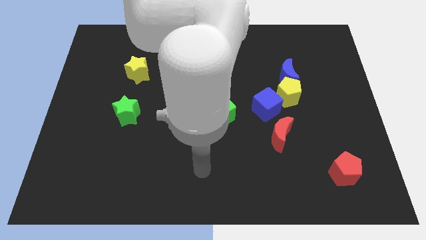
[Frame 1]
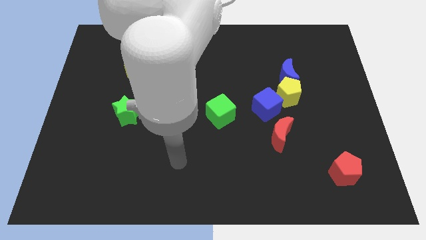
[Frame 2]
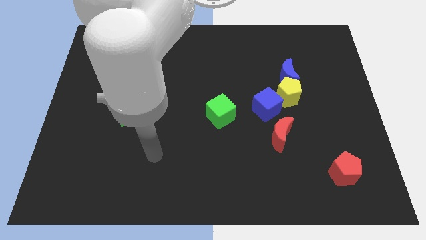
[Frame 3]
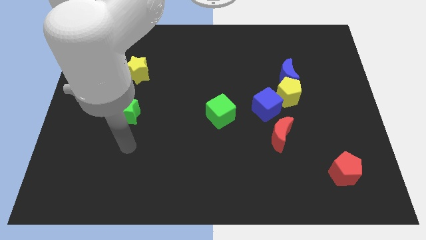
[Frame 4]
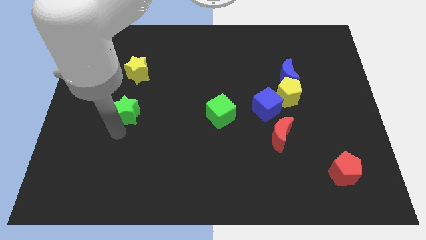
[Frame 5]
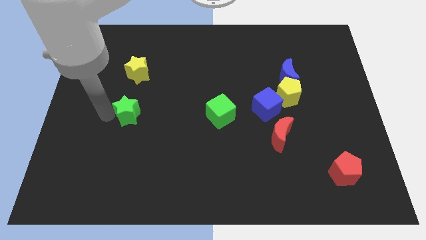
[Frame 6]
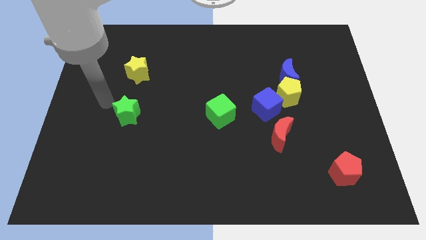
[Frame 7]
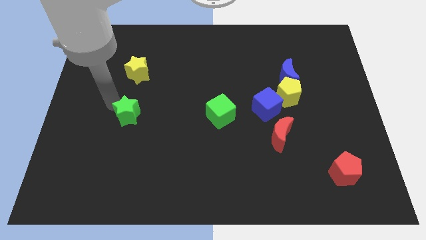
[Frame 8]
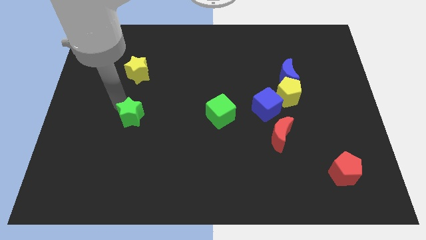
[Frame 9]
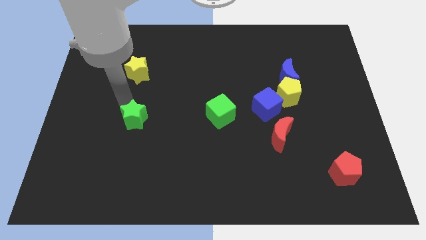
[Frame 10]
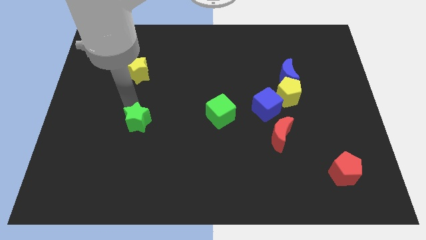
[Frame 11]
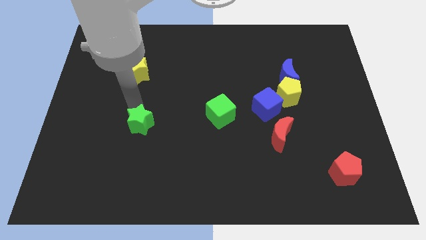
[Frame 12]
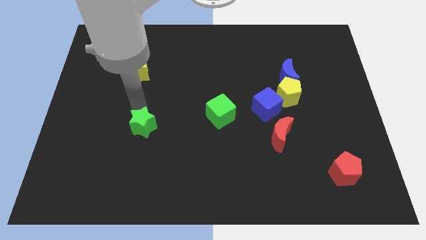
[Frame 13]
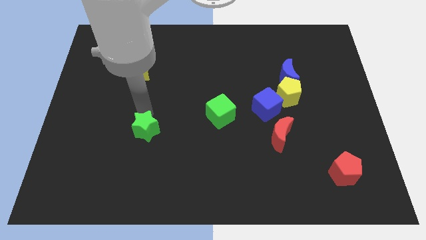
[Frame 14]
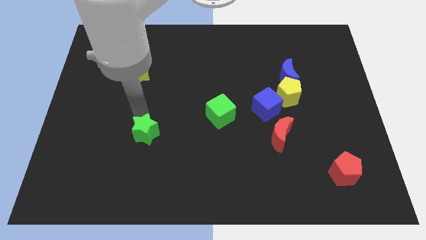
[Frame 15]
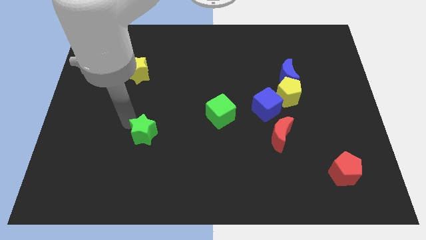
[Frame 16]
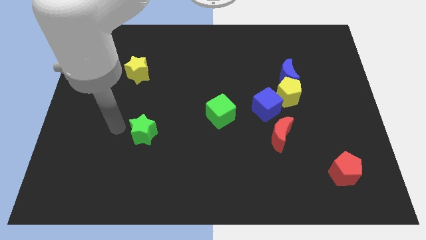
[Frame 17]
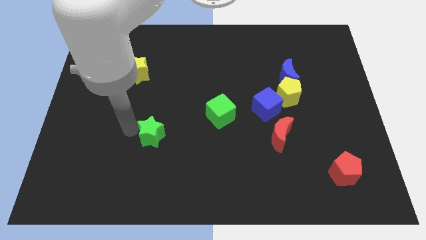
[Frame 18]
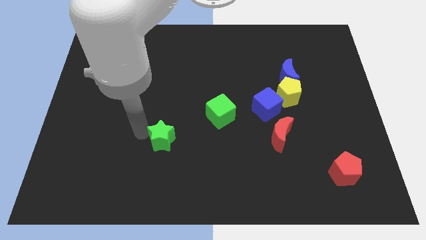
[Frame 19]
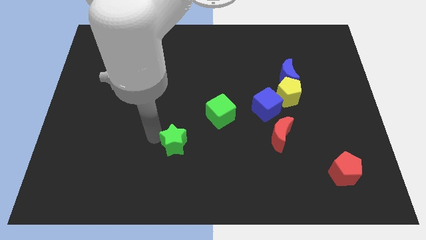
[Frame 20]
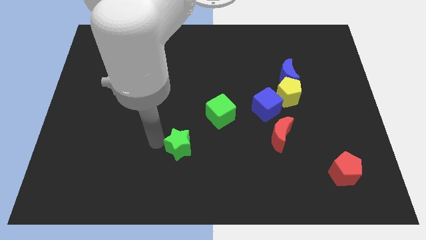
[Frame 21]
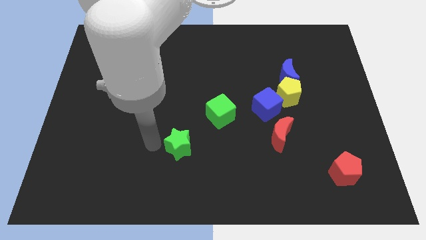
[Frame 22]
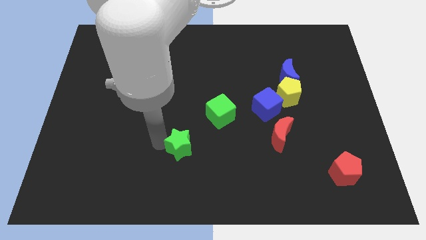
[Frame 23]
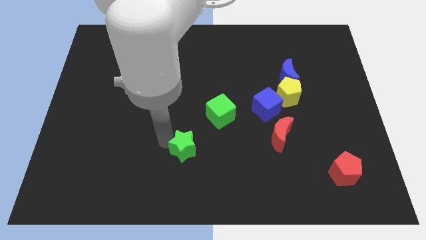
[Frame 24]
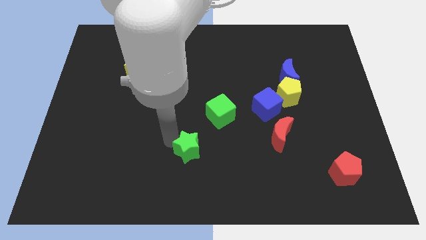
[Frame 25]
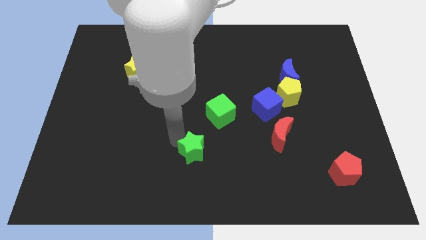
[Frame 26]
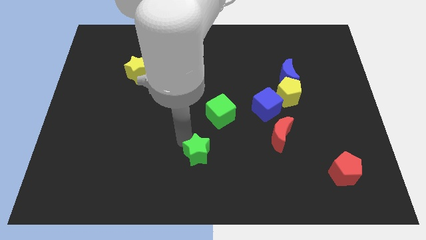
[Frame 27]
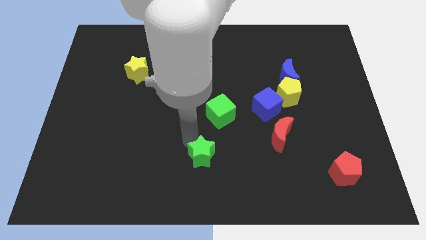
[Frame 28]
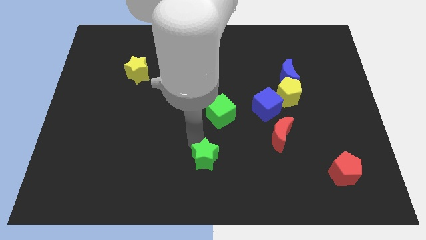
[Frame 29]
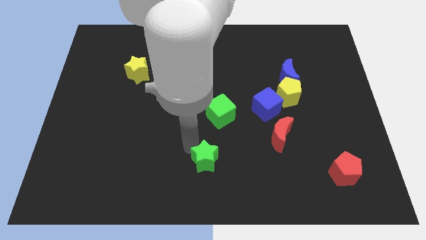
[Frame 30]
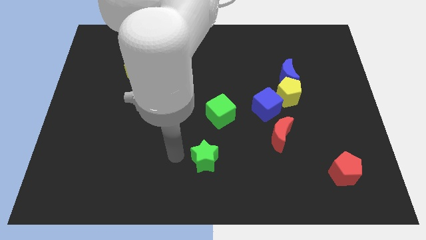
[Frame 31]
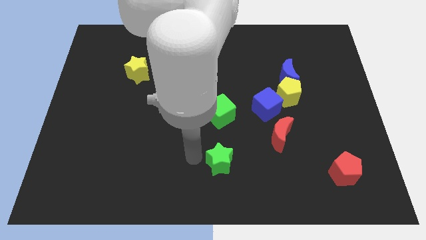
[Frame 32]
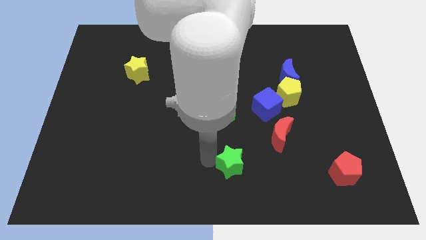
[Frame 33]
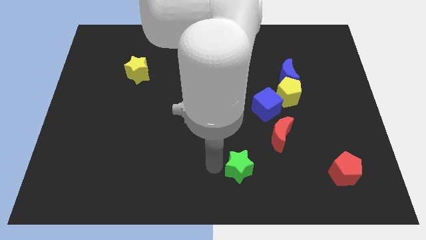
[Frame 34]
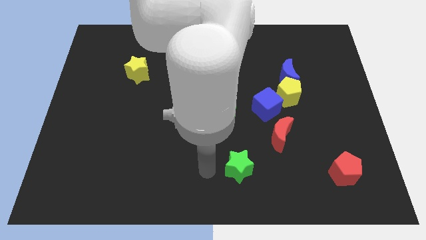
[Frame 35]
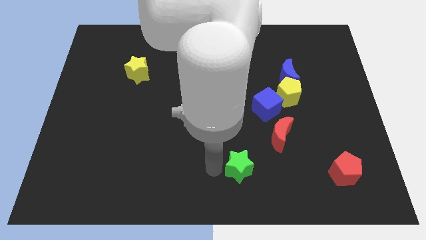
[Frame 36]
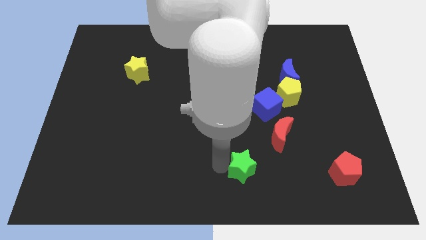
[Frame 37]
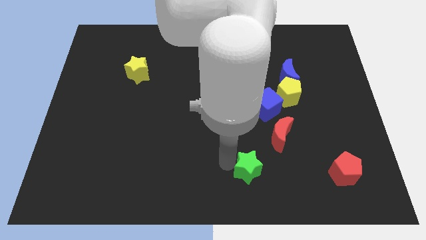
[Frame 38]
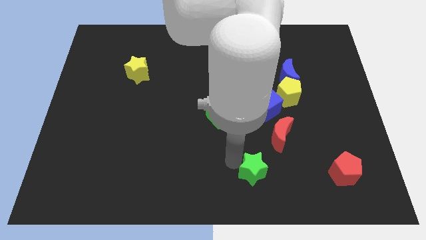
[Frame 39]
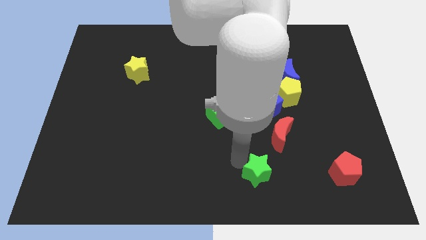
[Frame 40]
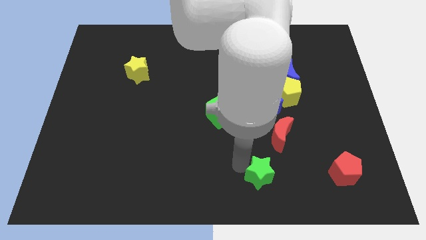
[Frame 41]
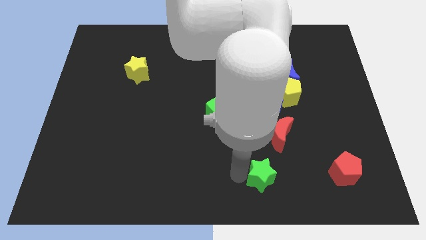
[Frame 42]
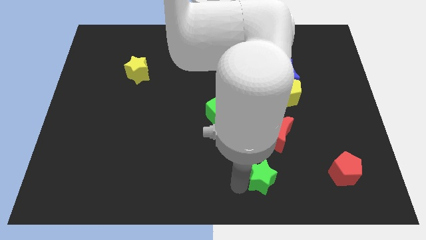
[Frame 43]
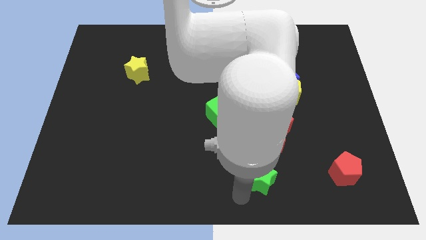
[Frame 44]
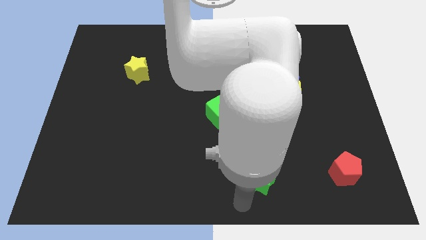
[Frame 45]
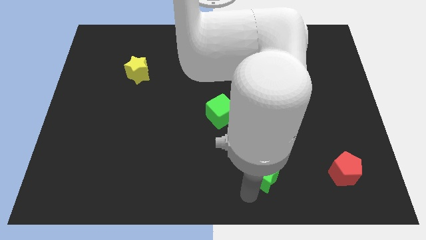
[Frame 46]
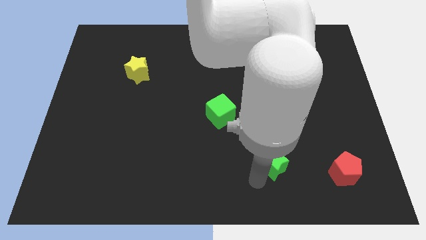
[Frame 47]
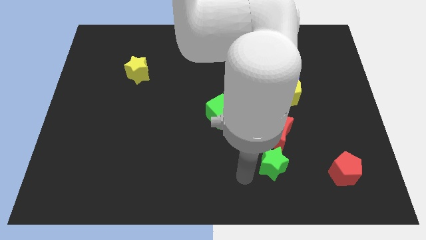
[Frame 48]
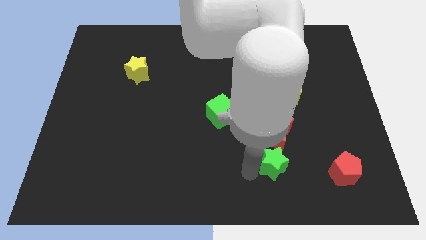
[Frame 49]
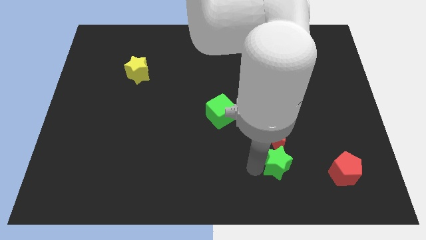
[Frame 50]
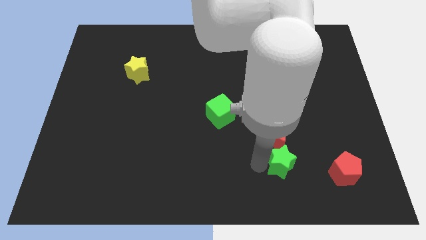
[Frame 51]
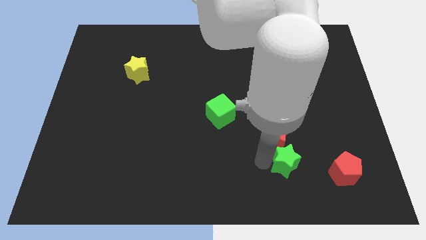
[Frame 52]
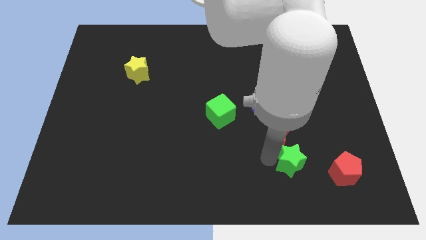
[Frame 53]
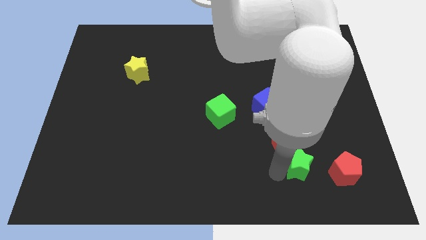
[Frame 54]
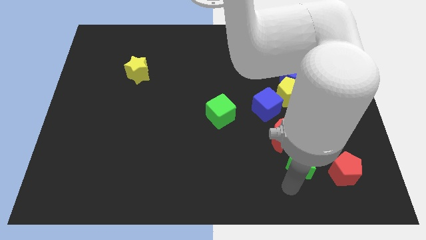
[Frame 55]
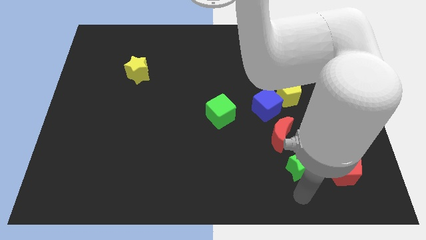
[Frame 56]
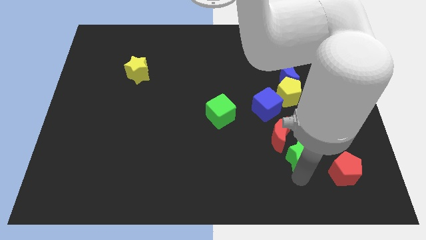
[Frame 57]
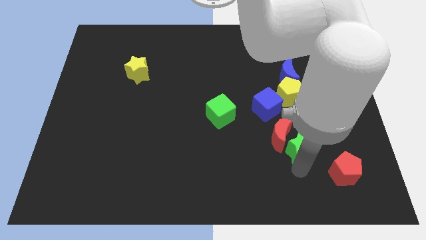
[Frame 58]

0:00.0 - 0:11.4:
push the green star to the bottom side of the yellow pentagon

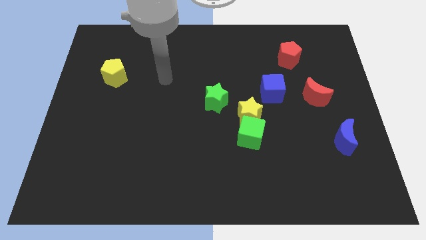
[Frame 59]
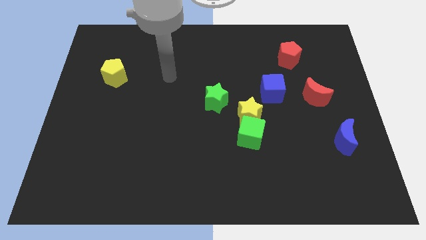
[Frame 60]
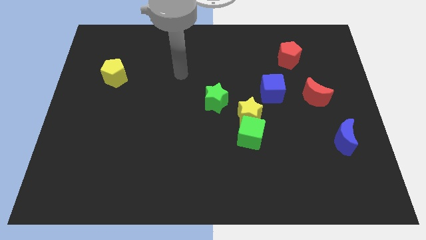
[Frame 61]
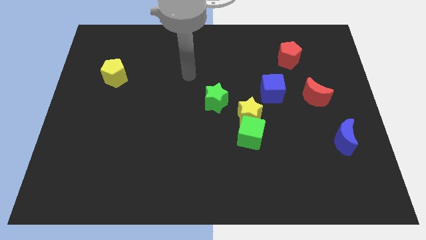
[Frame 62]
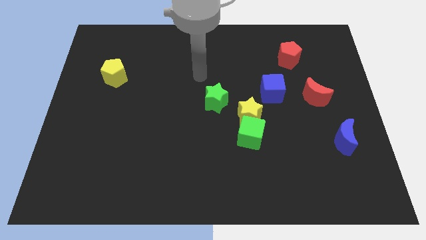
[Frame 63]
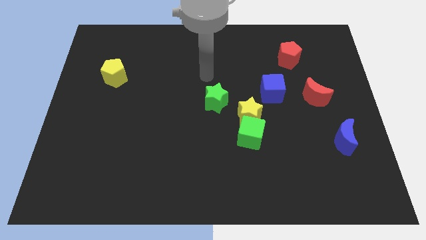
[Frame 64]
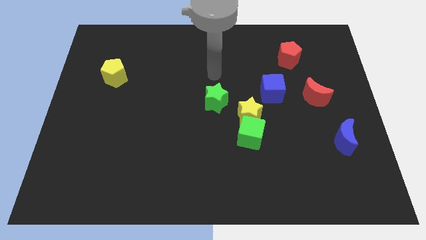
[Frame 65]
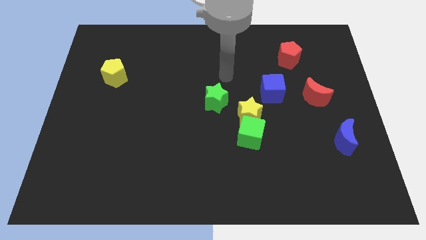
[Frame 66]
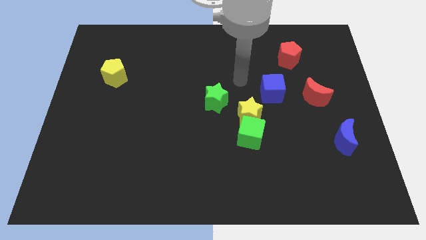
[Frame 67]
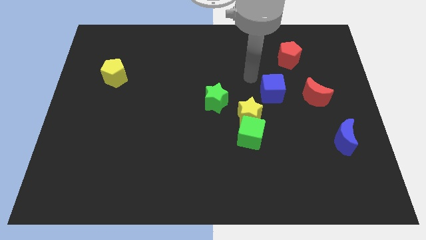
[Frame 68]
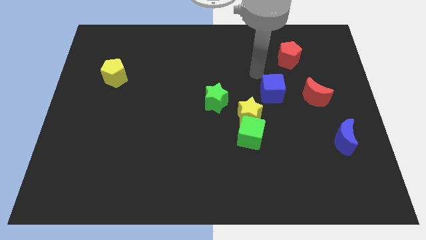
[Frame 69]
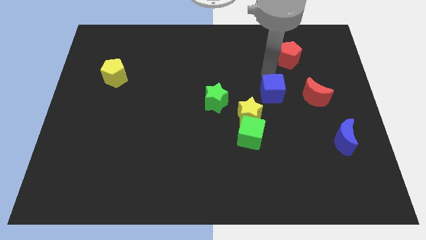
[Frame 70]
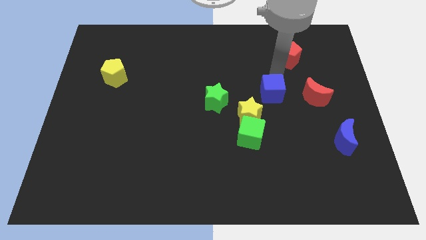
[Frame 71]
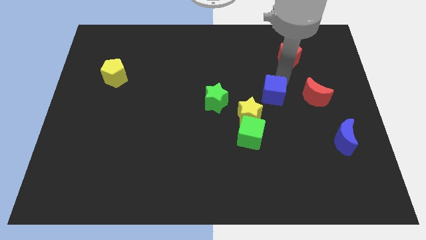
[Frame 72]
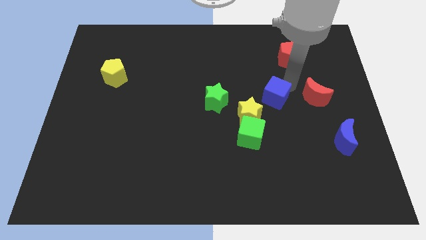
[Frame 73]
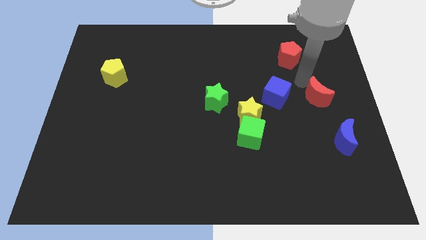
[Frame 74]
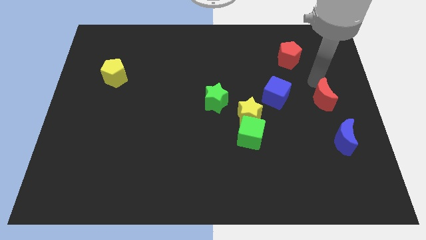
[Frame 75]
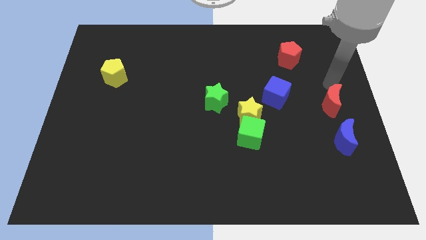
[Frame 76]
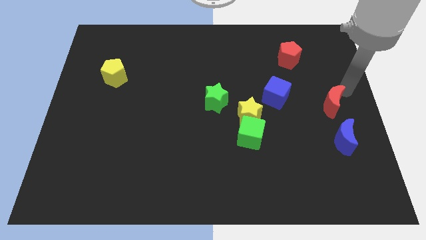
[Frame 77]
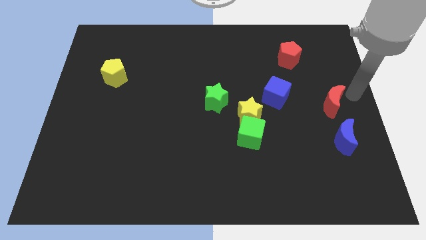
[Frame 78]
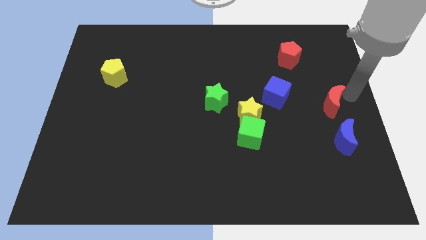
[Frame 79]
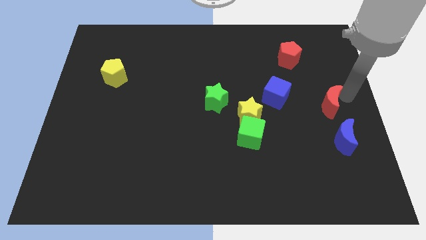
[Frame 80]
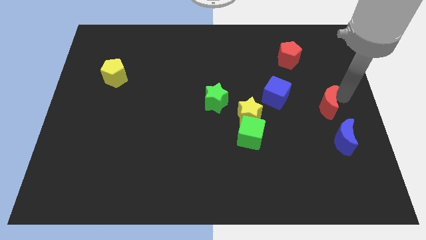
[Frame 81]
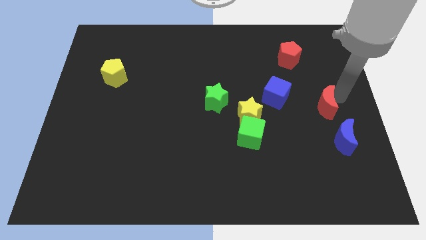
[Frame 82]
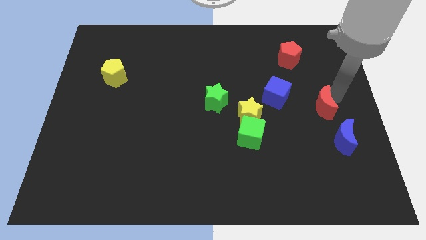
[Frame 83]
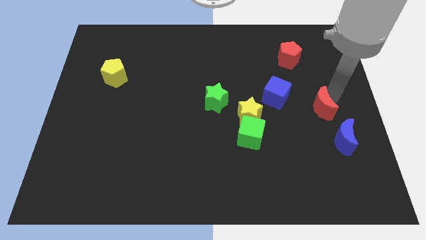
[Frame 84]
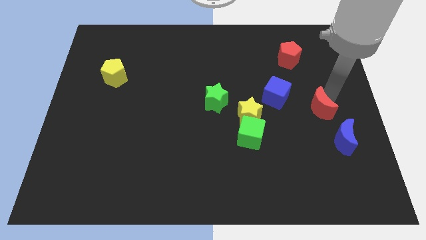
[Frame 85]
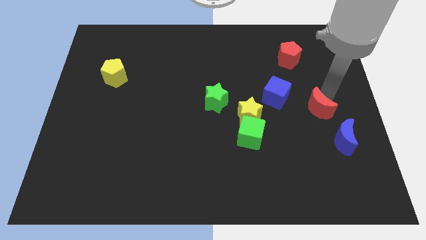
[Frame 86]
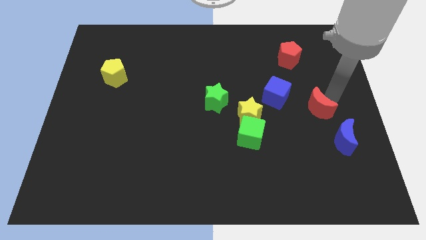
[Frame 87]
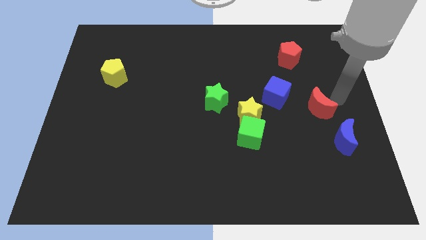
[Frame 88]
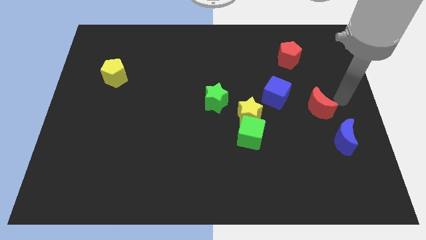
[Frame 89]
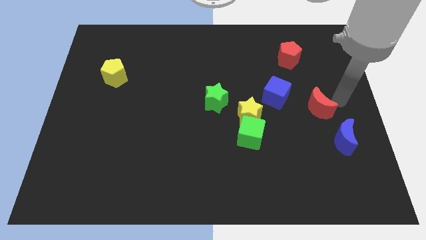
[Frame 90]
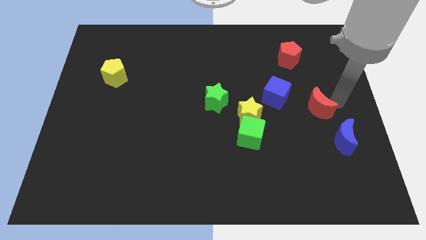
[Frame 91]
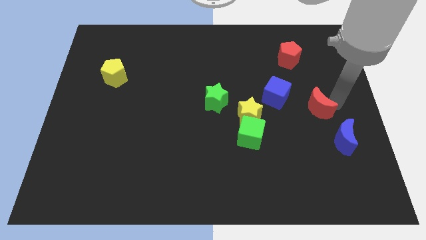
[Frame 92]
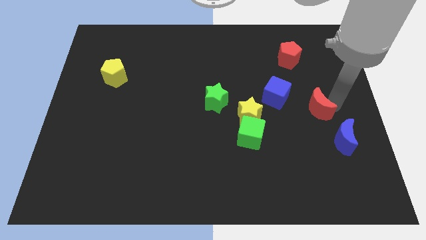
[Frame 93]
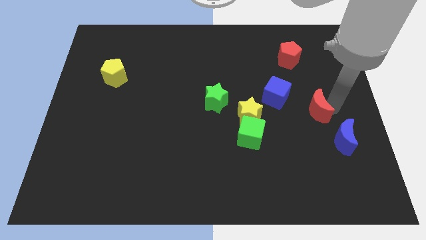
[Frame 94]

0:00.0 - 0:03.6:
put the red moon just right of the yellow star
